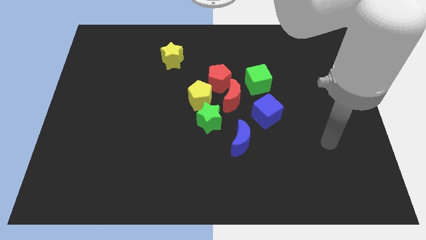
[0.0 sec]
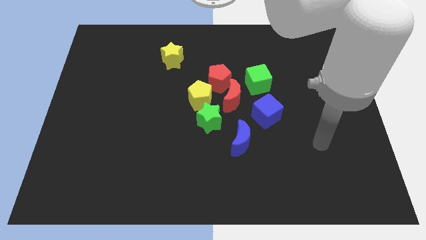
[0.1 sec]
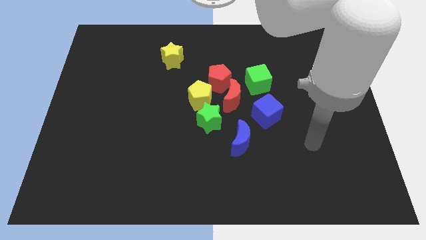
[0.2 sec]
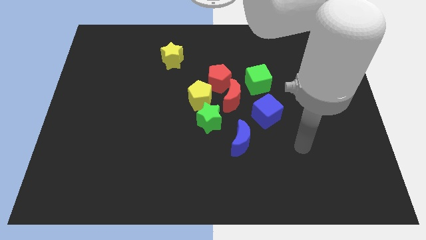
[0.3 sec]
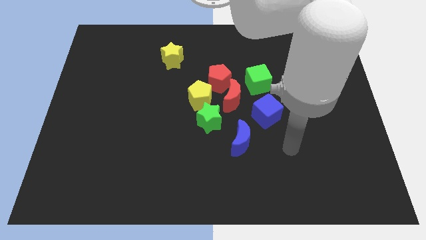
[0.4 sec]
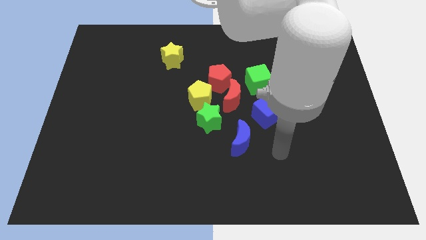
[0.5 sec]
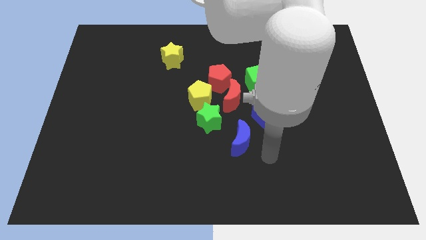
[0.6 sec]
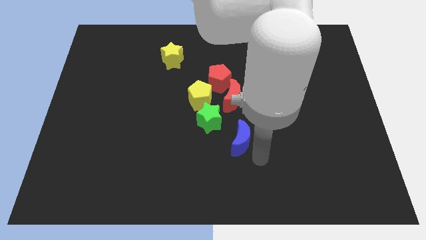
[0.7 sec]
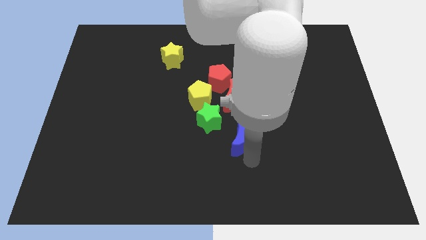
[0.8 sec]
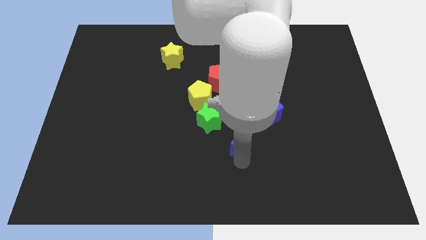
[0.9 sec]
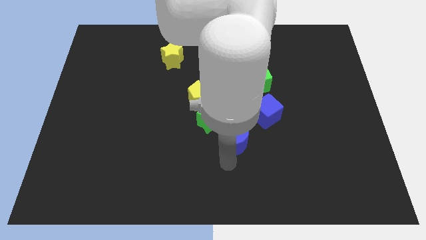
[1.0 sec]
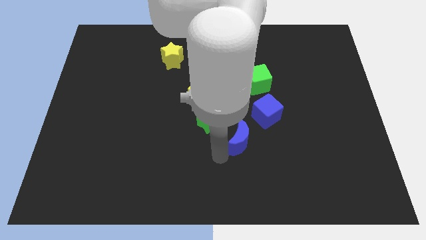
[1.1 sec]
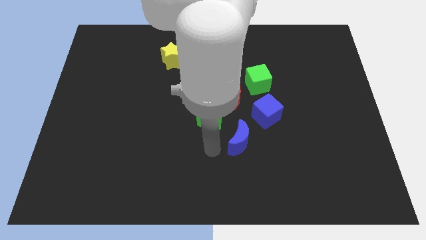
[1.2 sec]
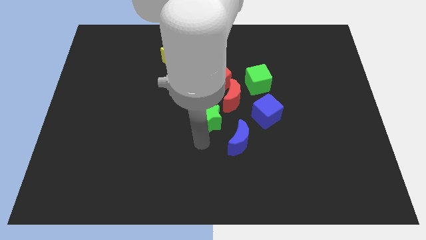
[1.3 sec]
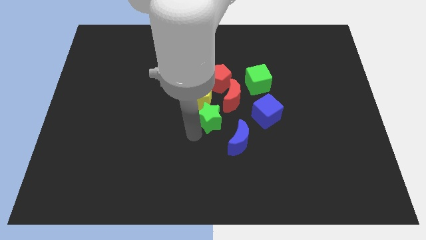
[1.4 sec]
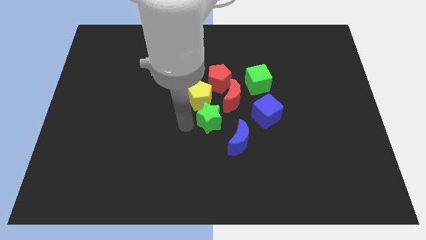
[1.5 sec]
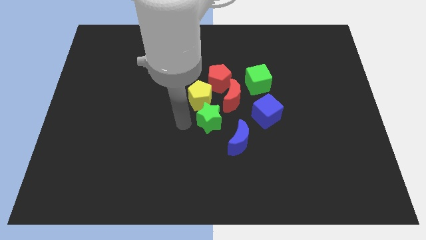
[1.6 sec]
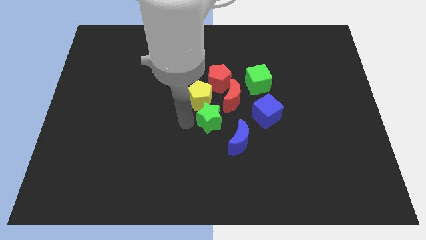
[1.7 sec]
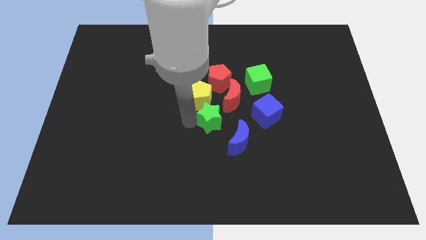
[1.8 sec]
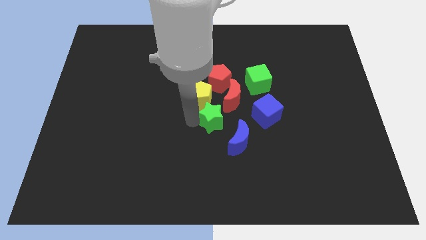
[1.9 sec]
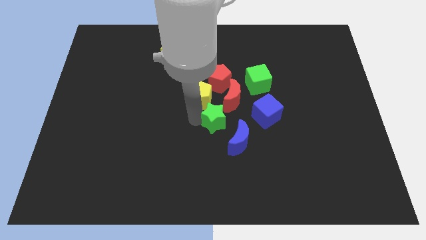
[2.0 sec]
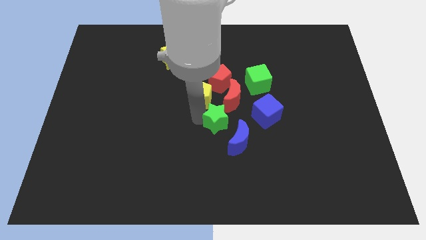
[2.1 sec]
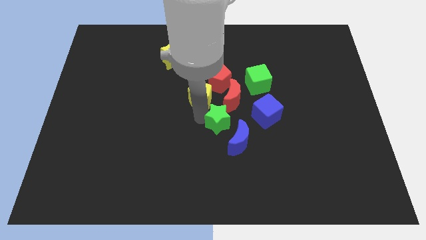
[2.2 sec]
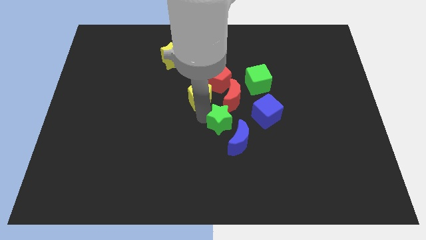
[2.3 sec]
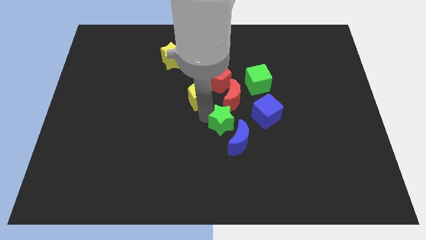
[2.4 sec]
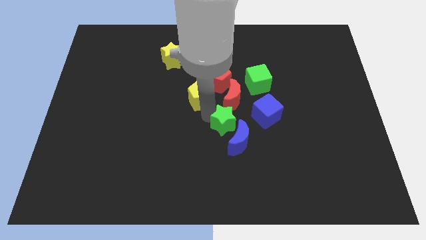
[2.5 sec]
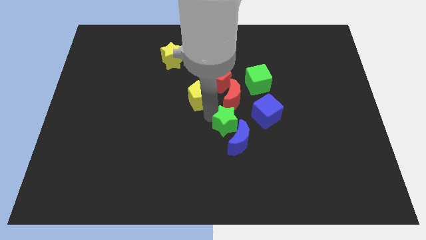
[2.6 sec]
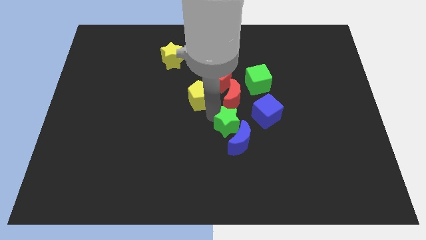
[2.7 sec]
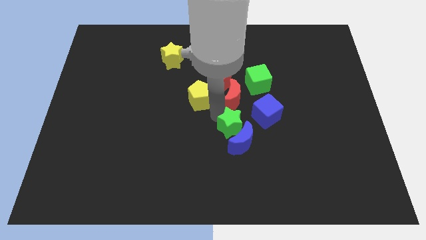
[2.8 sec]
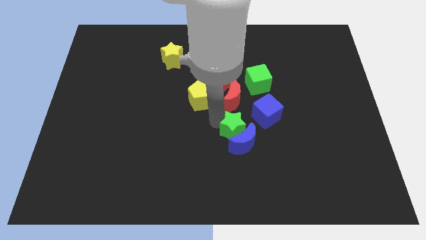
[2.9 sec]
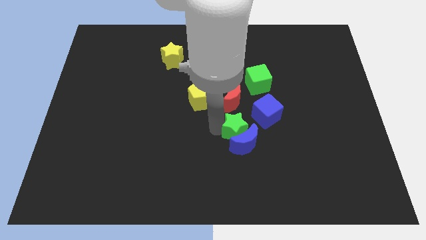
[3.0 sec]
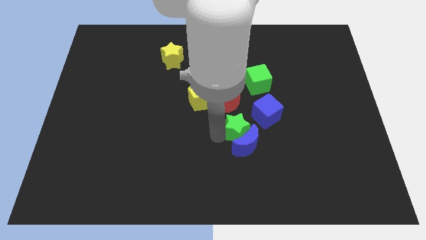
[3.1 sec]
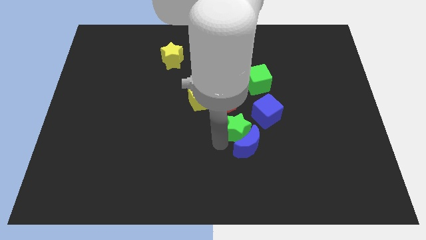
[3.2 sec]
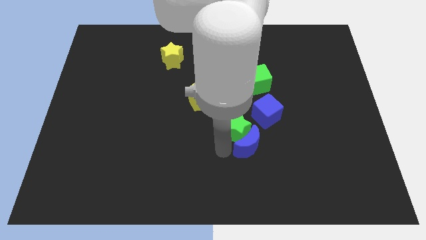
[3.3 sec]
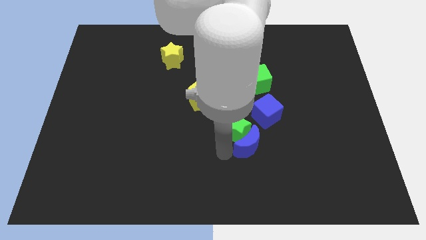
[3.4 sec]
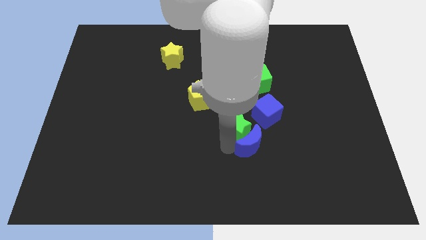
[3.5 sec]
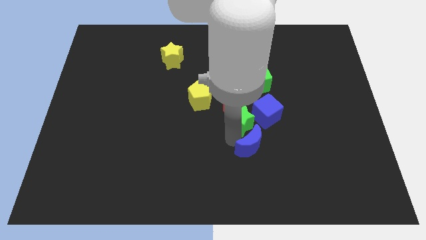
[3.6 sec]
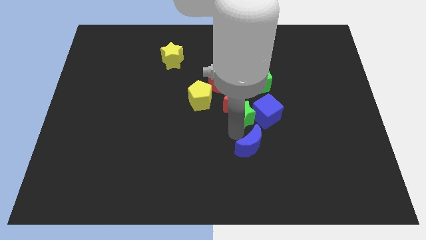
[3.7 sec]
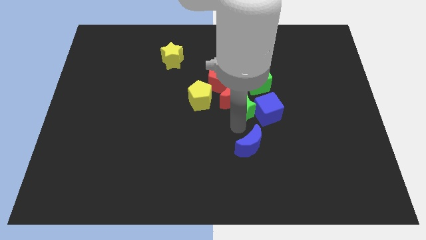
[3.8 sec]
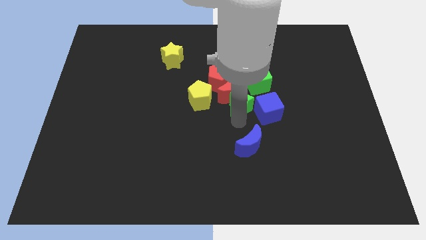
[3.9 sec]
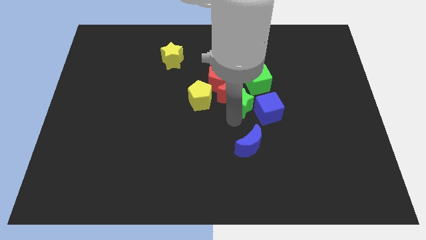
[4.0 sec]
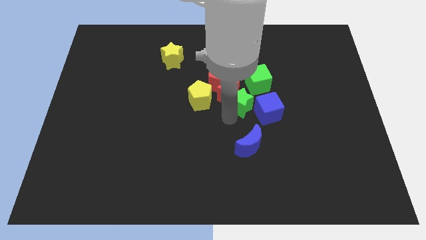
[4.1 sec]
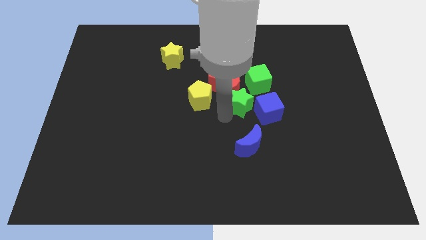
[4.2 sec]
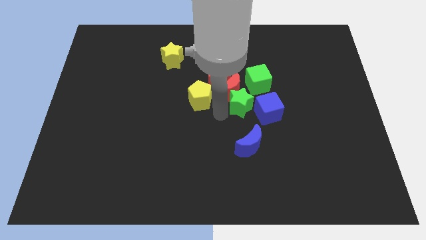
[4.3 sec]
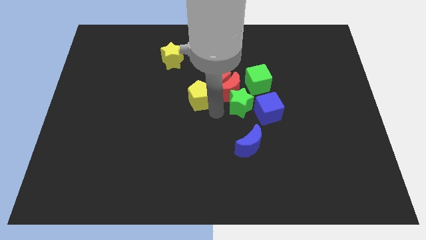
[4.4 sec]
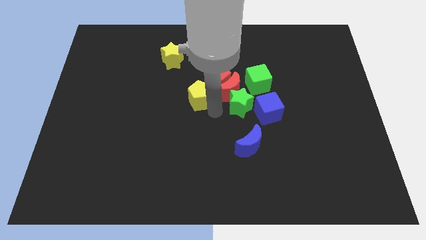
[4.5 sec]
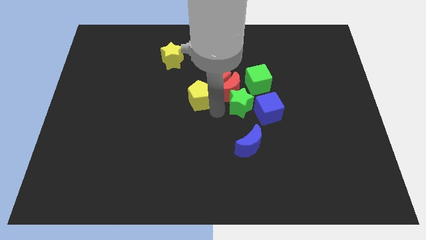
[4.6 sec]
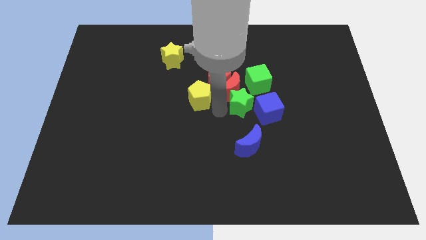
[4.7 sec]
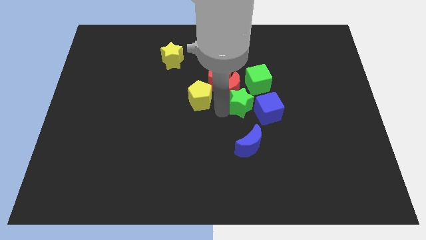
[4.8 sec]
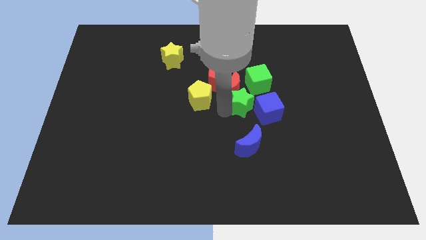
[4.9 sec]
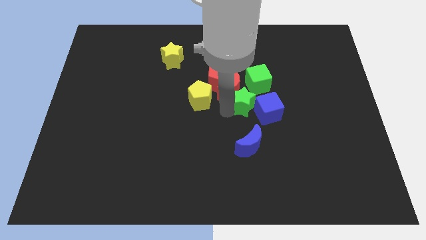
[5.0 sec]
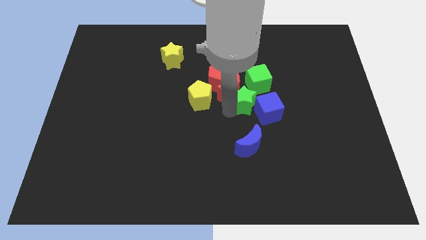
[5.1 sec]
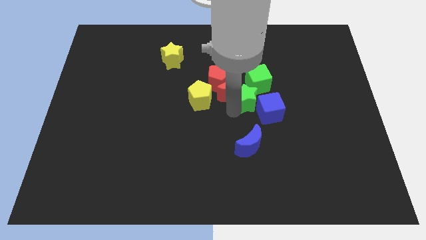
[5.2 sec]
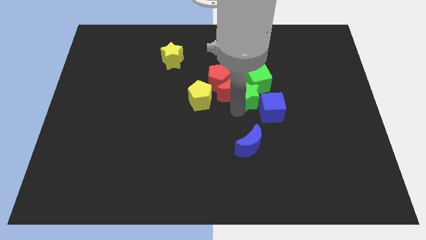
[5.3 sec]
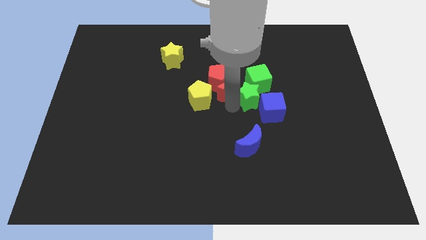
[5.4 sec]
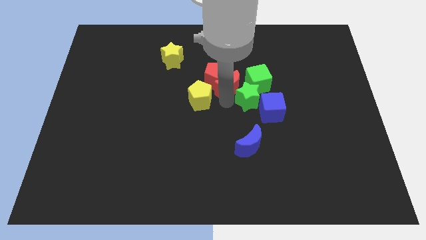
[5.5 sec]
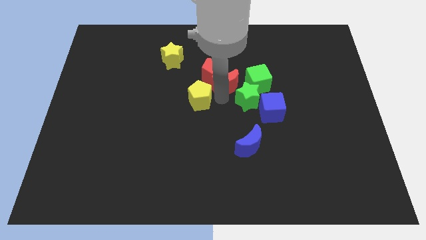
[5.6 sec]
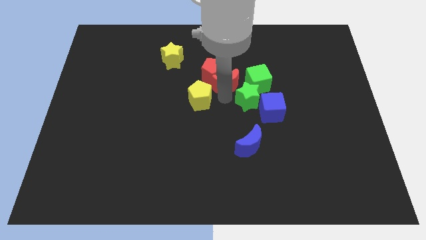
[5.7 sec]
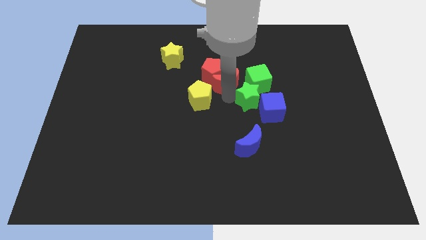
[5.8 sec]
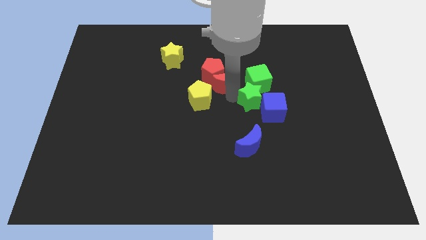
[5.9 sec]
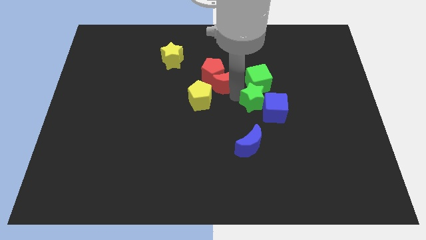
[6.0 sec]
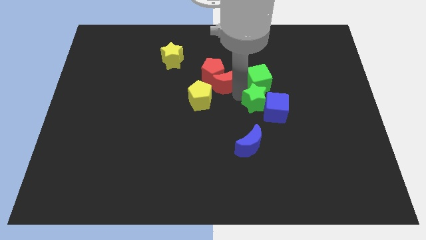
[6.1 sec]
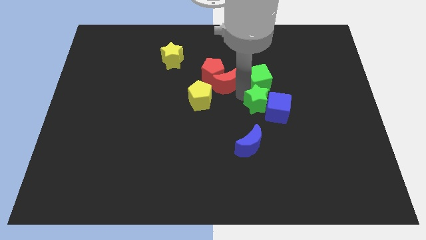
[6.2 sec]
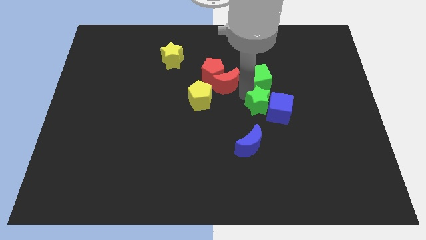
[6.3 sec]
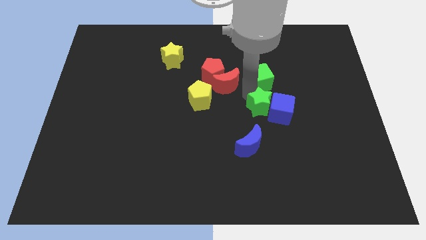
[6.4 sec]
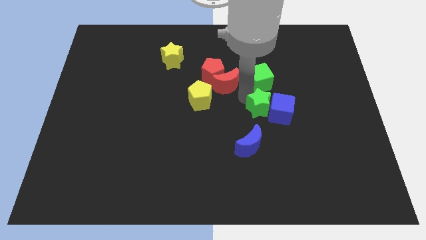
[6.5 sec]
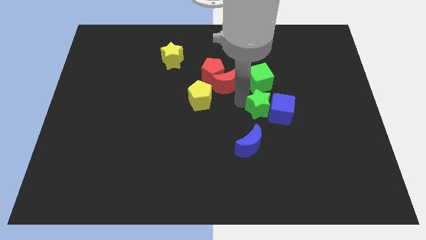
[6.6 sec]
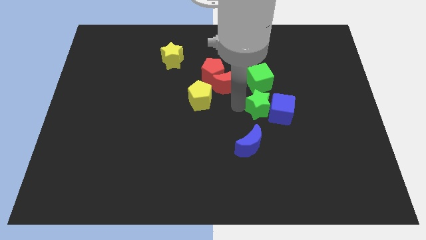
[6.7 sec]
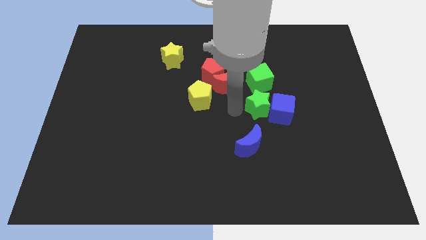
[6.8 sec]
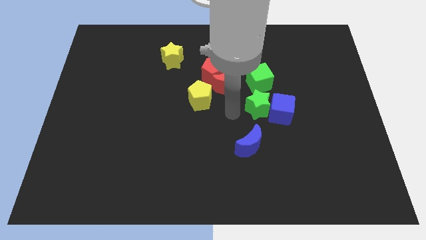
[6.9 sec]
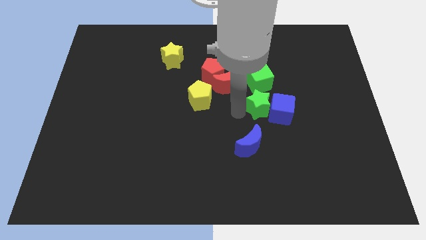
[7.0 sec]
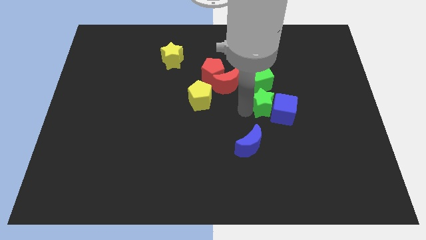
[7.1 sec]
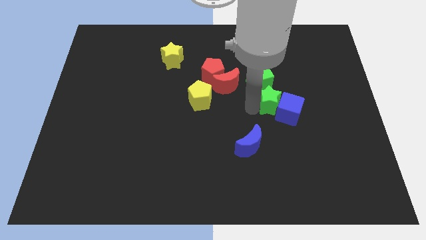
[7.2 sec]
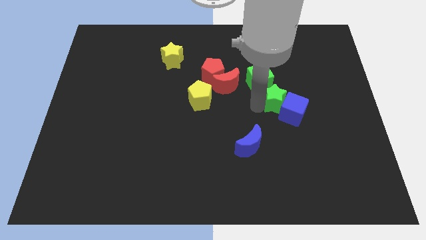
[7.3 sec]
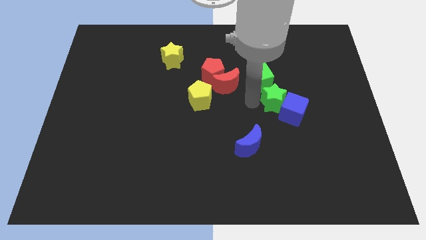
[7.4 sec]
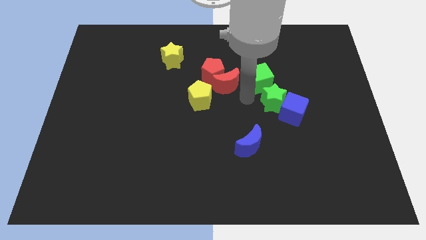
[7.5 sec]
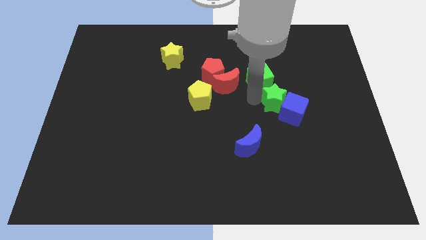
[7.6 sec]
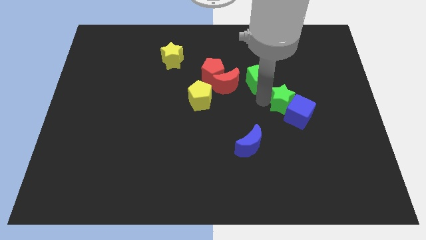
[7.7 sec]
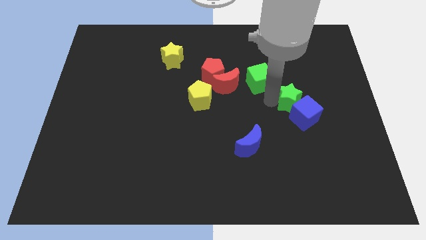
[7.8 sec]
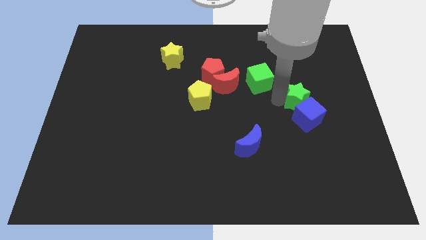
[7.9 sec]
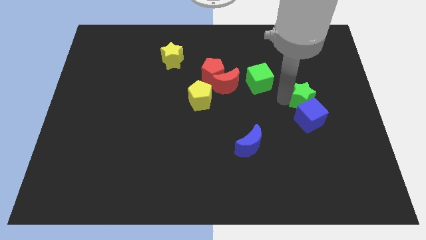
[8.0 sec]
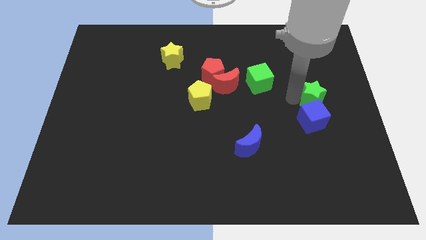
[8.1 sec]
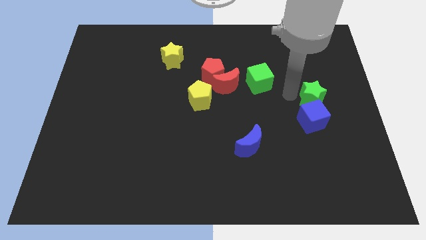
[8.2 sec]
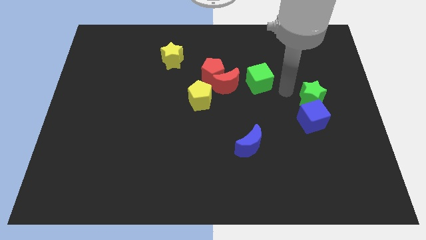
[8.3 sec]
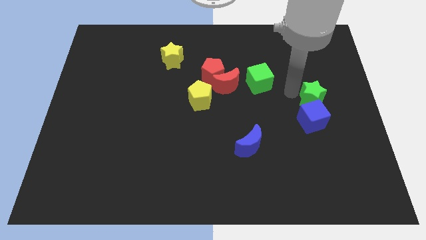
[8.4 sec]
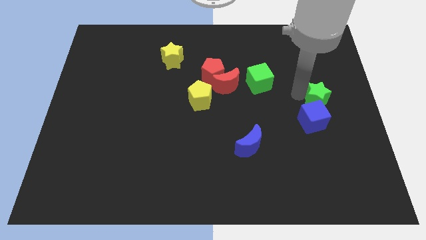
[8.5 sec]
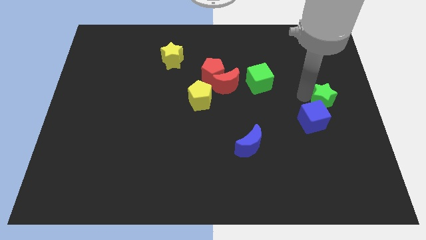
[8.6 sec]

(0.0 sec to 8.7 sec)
put the green star to the center right
